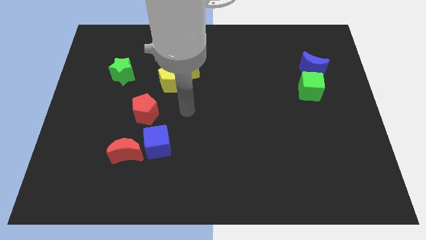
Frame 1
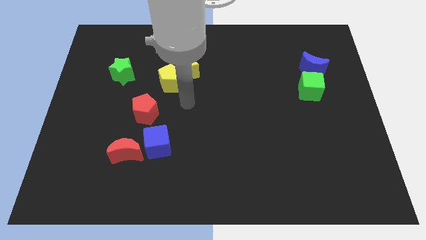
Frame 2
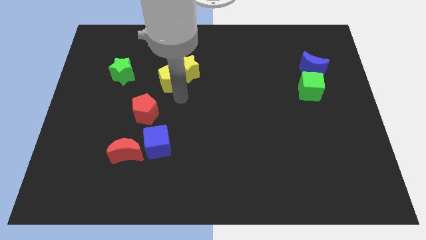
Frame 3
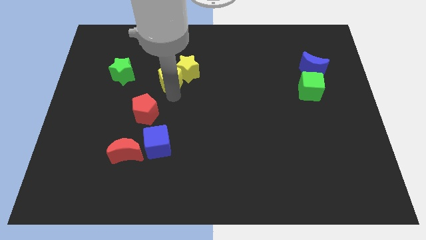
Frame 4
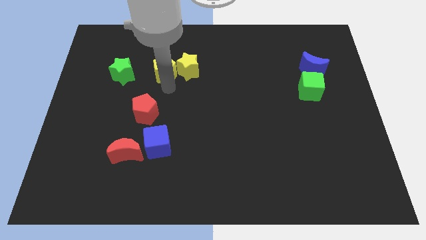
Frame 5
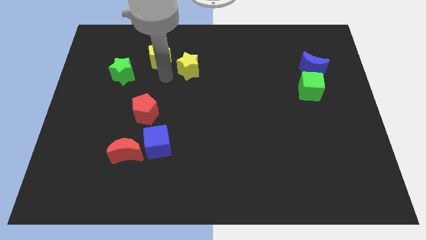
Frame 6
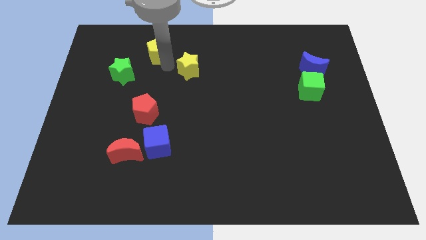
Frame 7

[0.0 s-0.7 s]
move the yellow star away from the yellow pentagon

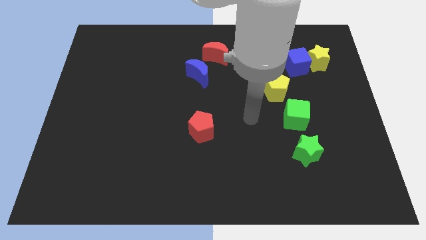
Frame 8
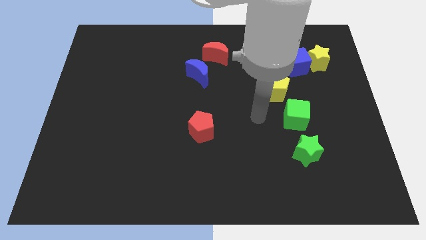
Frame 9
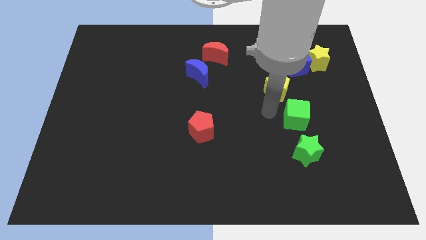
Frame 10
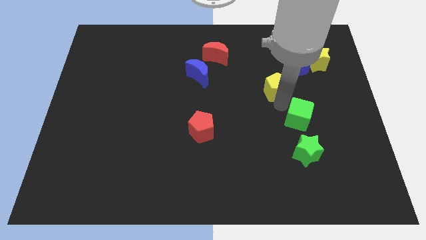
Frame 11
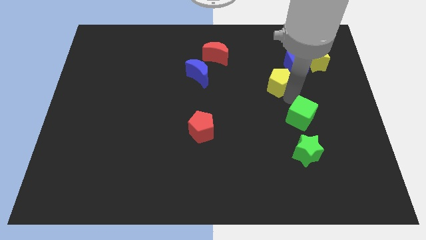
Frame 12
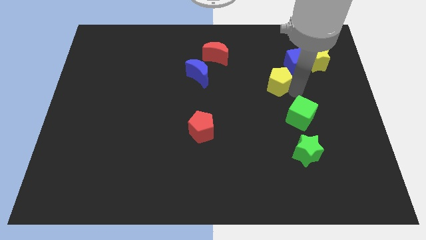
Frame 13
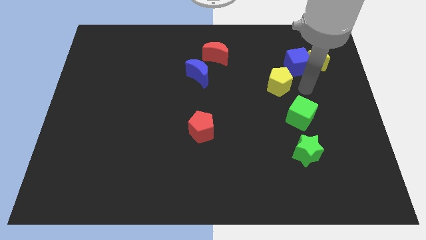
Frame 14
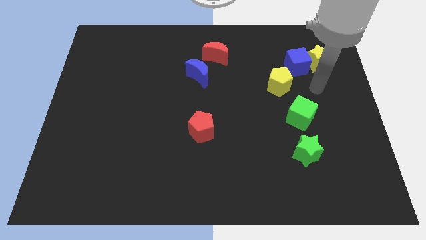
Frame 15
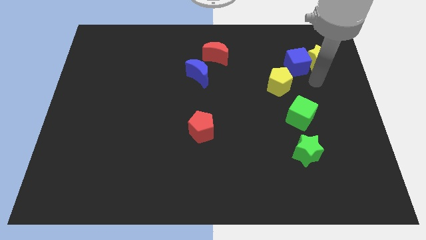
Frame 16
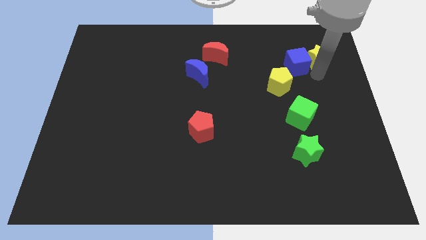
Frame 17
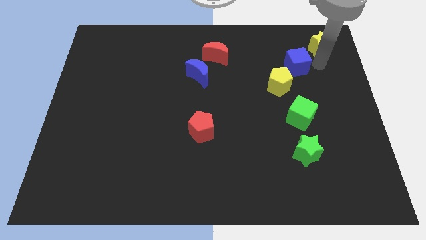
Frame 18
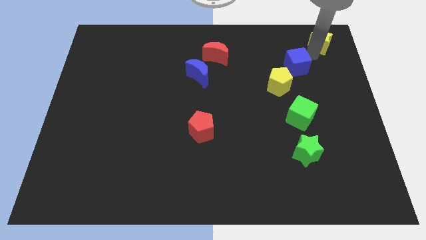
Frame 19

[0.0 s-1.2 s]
move the blue cube away from the yellow star

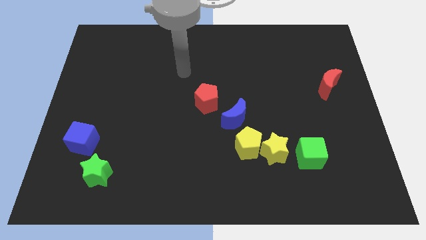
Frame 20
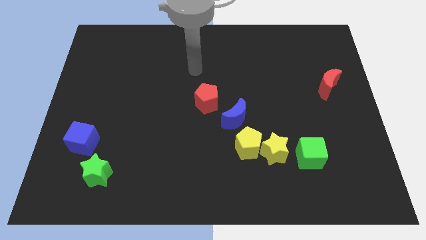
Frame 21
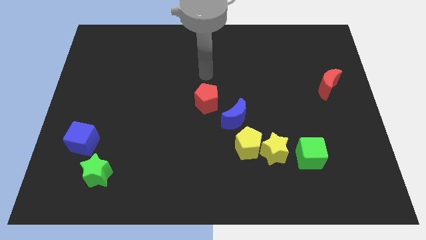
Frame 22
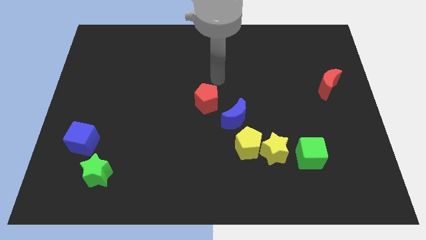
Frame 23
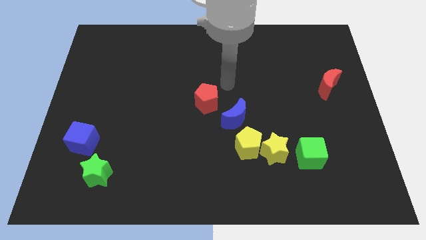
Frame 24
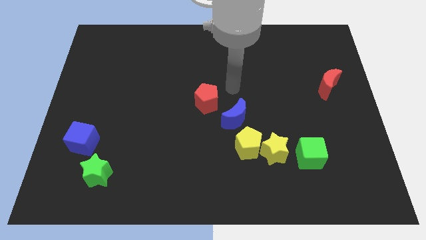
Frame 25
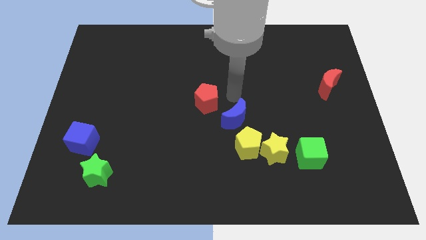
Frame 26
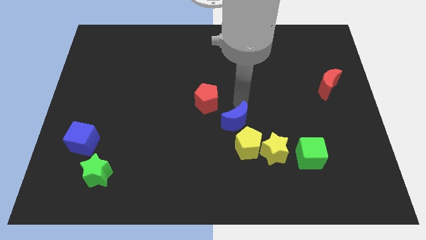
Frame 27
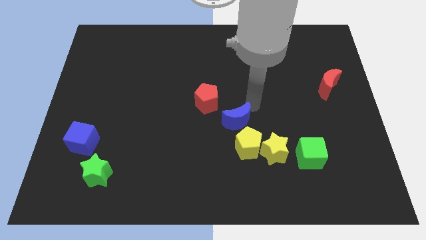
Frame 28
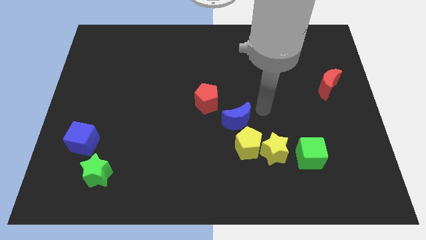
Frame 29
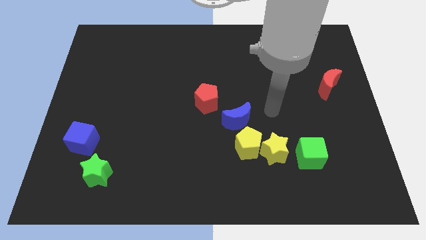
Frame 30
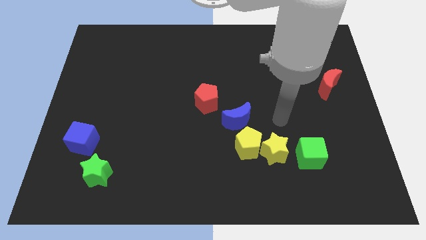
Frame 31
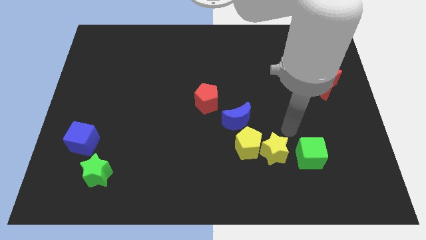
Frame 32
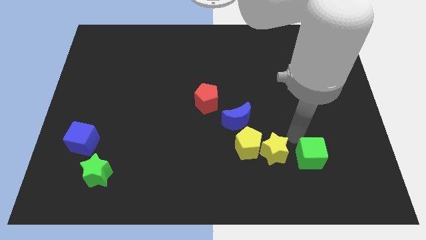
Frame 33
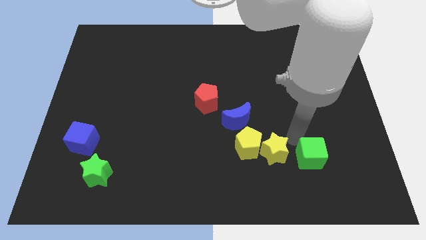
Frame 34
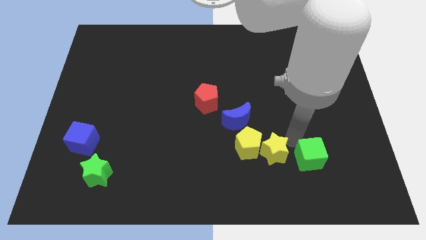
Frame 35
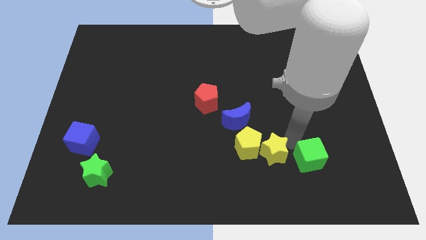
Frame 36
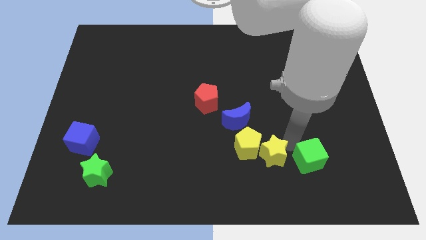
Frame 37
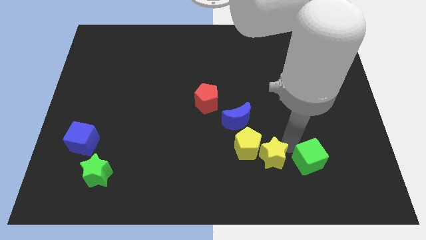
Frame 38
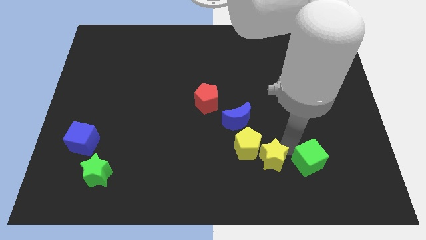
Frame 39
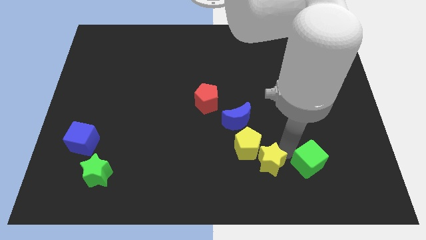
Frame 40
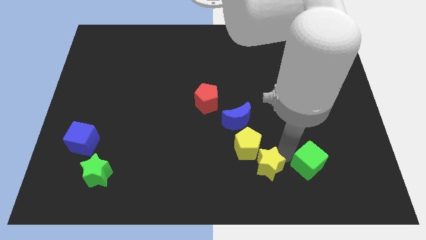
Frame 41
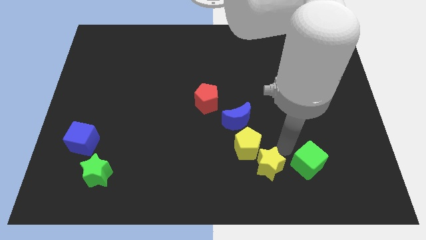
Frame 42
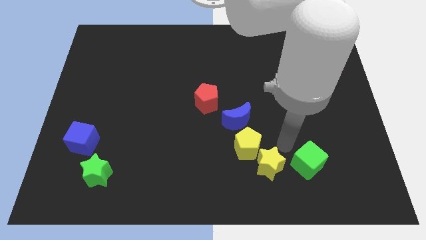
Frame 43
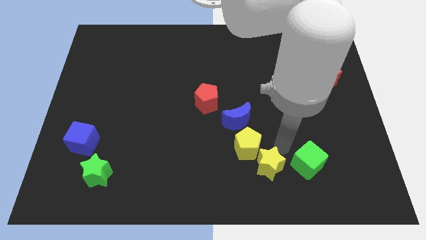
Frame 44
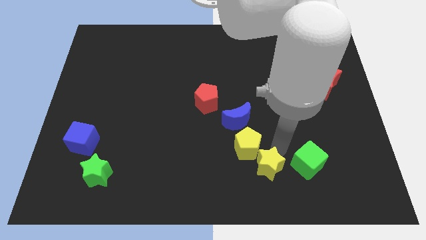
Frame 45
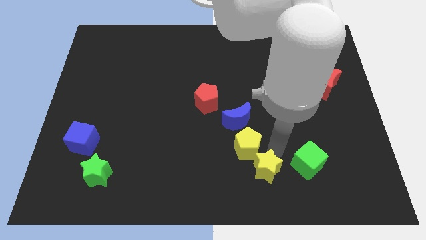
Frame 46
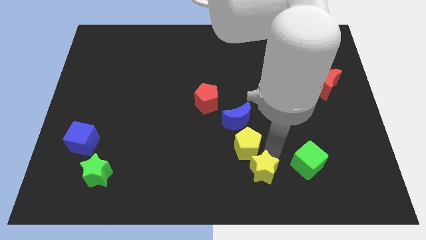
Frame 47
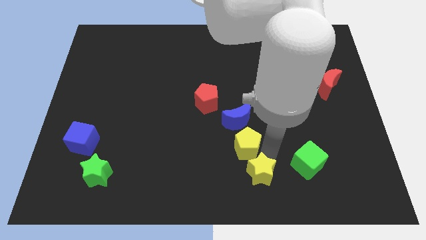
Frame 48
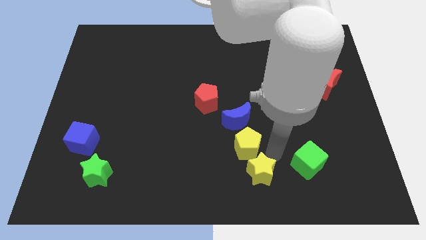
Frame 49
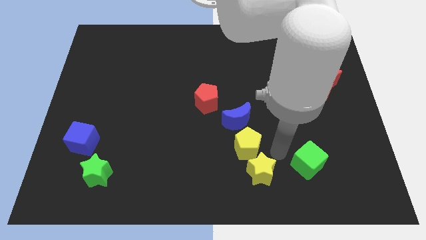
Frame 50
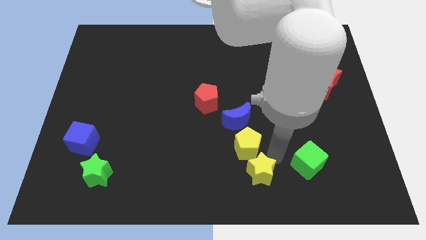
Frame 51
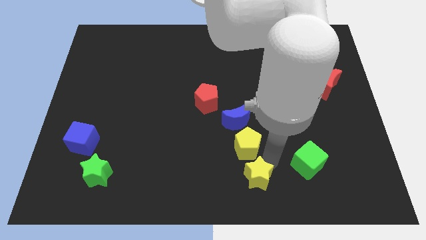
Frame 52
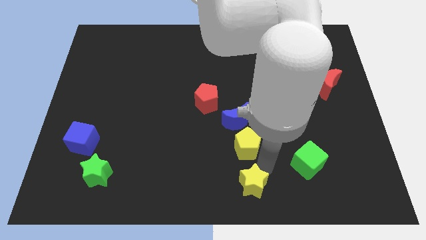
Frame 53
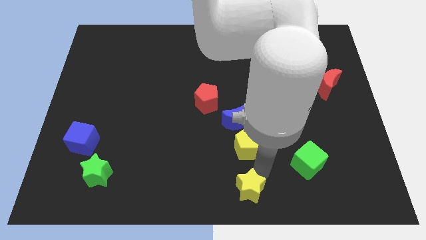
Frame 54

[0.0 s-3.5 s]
move the yellow star away from the yellow pentagon and green cube

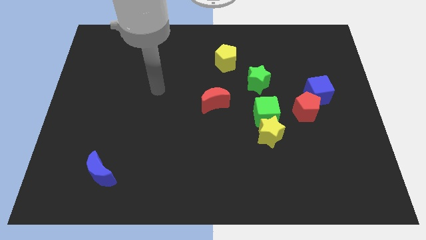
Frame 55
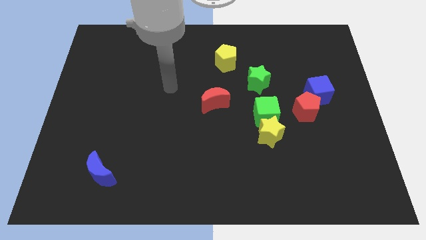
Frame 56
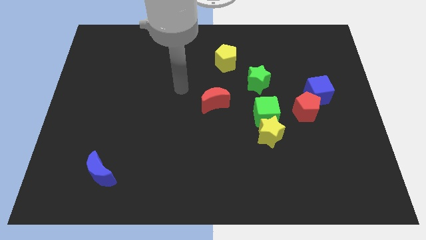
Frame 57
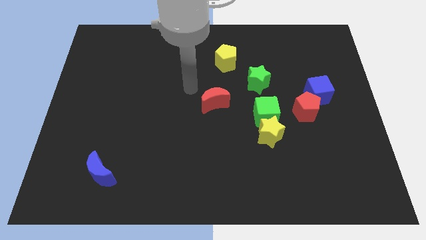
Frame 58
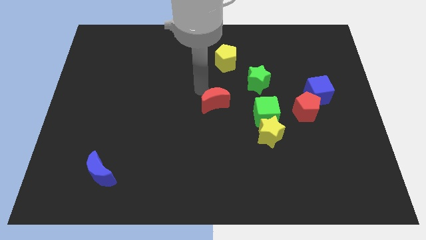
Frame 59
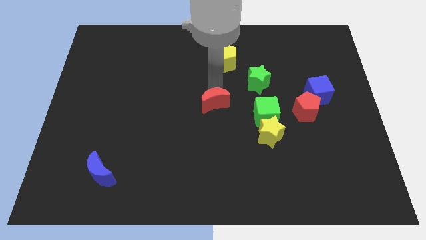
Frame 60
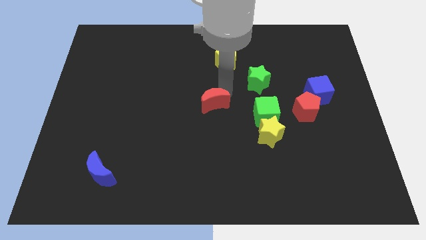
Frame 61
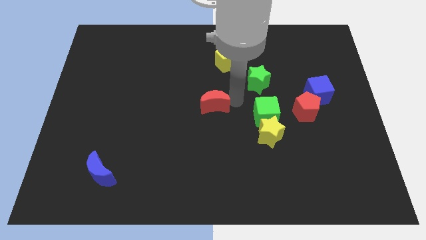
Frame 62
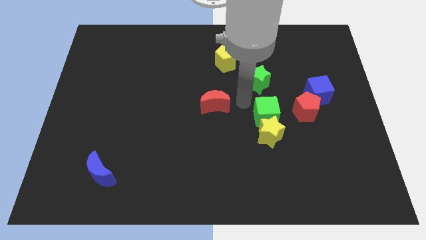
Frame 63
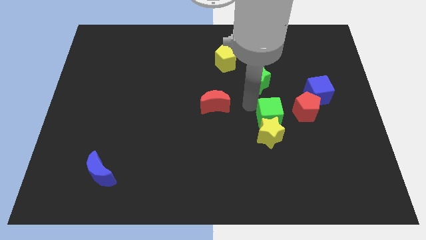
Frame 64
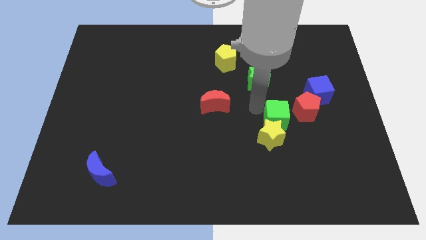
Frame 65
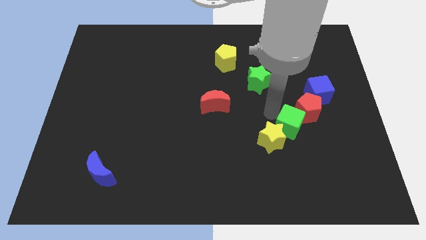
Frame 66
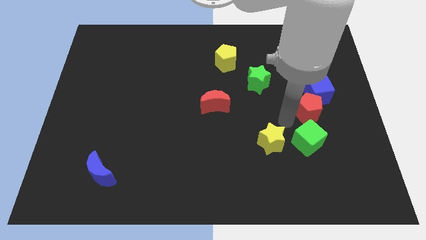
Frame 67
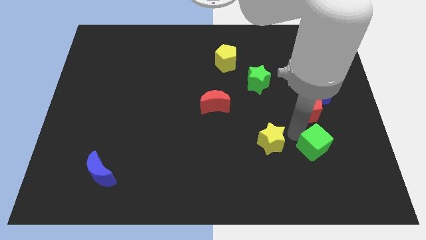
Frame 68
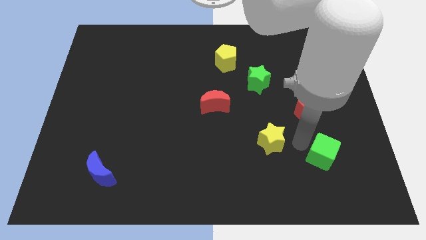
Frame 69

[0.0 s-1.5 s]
separate the yellow star from the green cube

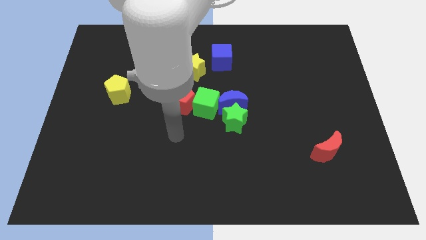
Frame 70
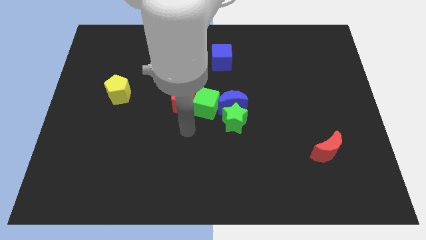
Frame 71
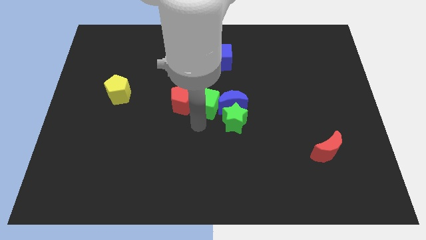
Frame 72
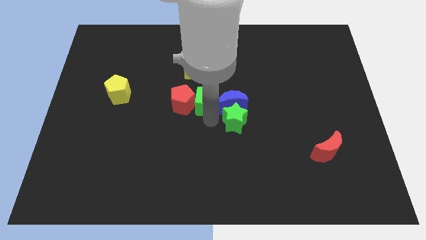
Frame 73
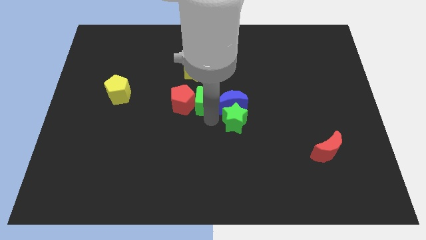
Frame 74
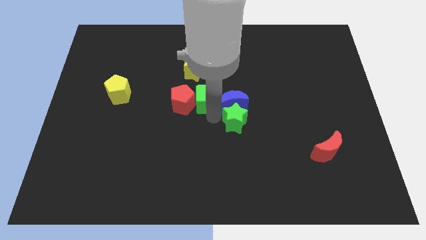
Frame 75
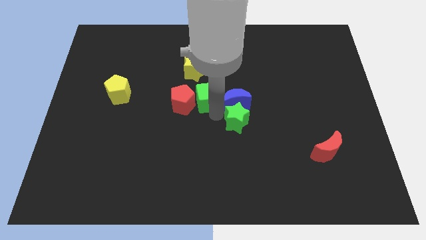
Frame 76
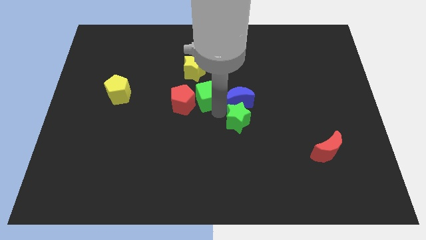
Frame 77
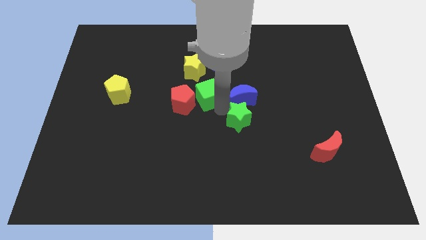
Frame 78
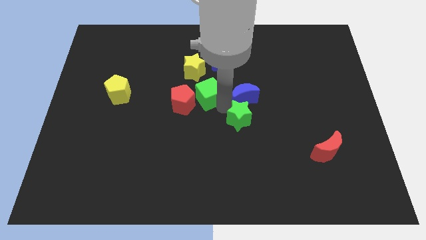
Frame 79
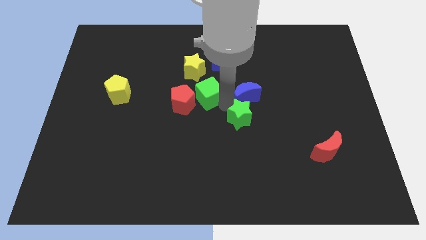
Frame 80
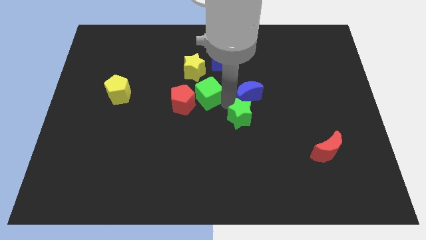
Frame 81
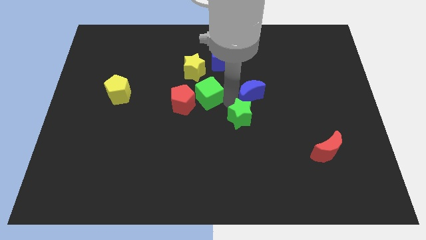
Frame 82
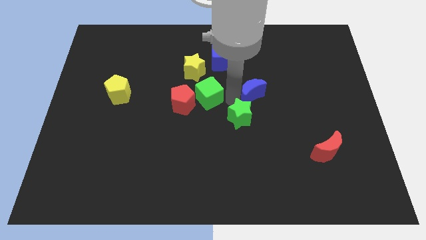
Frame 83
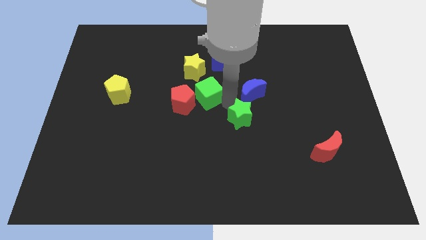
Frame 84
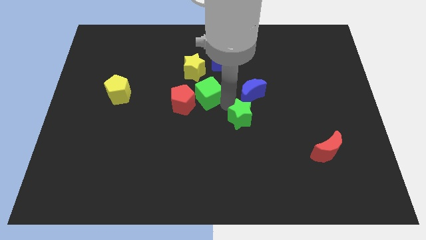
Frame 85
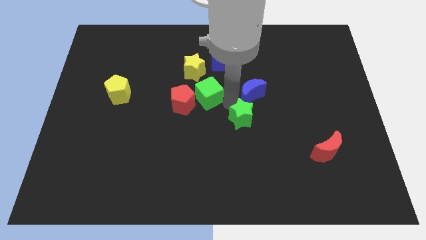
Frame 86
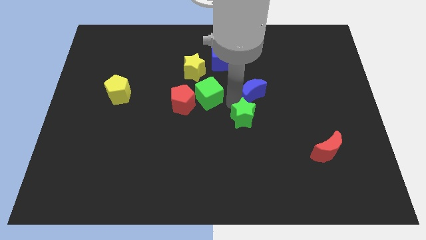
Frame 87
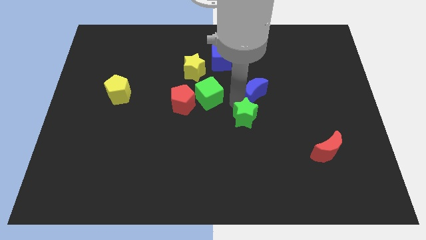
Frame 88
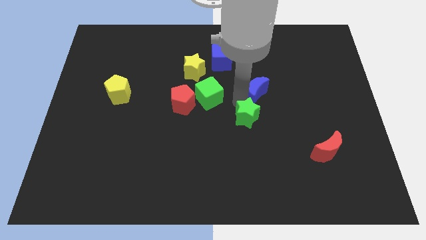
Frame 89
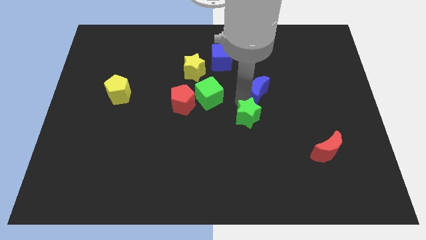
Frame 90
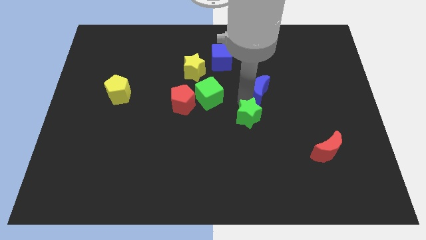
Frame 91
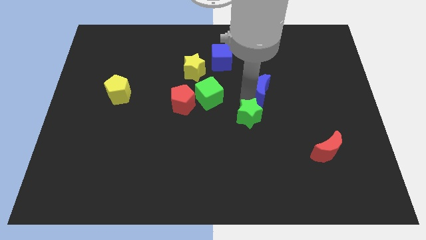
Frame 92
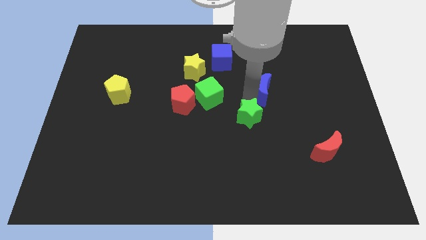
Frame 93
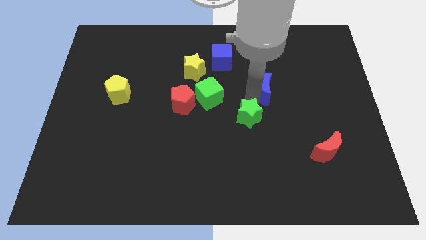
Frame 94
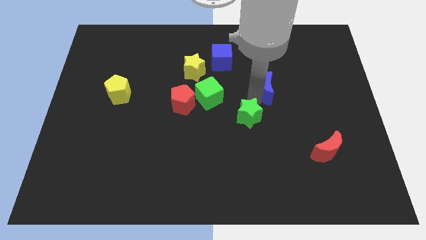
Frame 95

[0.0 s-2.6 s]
pull the blue moon apart from the green star and green cube

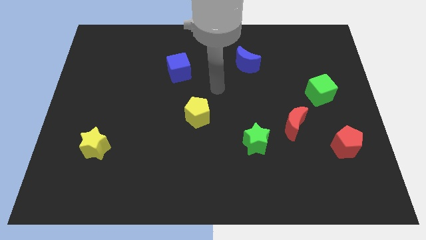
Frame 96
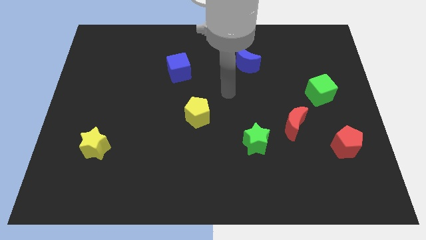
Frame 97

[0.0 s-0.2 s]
separate the red moon from the green star
